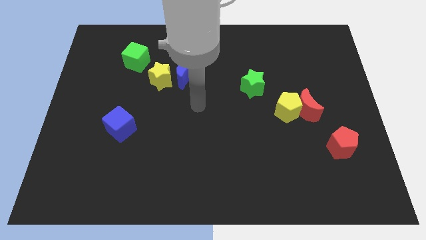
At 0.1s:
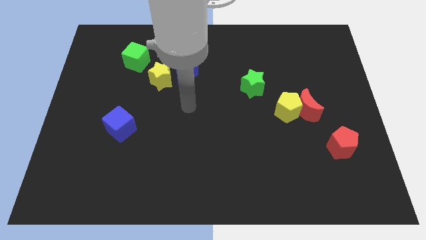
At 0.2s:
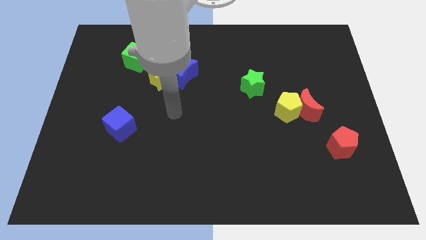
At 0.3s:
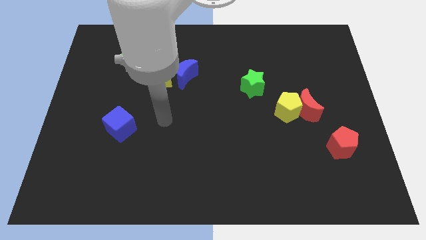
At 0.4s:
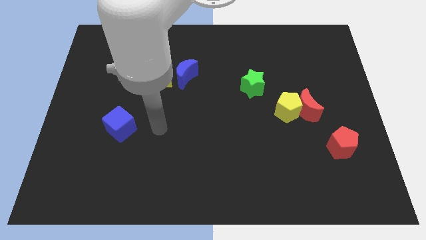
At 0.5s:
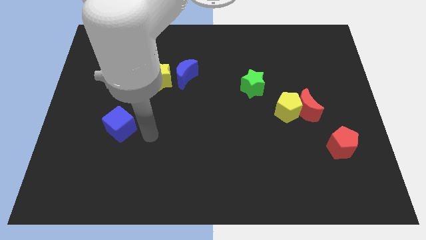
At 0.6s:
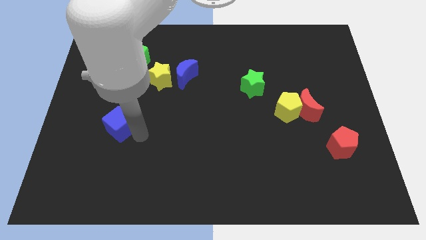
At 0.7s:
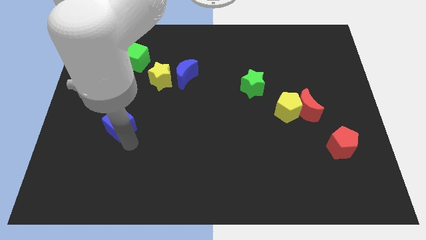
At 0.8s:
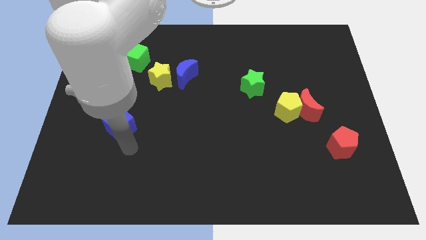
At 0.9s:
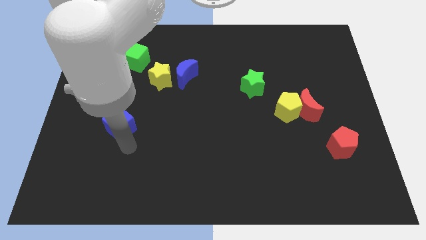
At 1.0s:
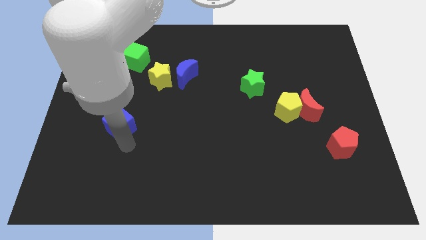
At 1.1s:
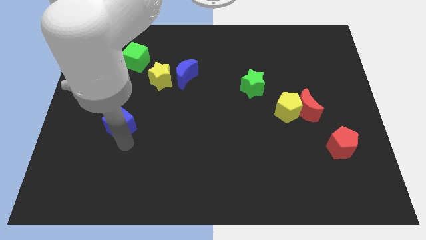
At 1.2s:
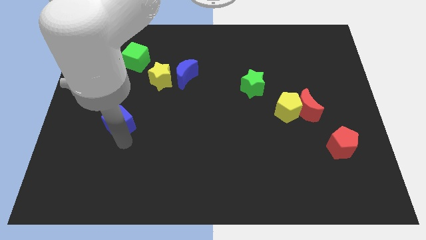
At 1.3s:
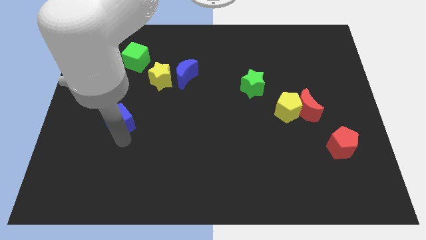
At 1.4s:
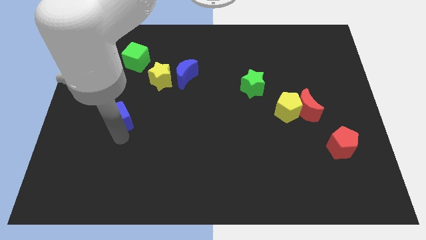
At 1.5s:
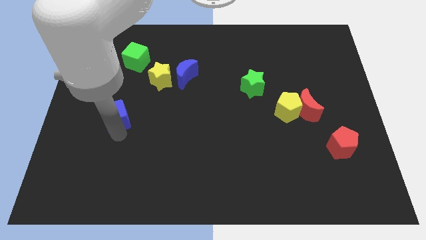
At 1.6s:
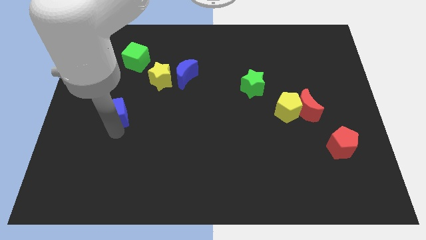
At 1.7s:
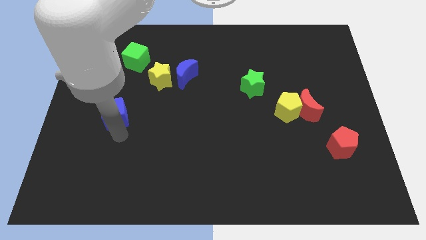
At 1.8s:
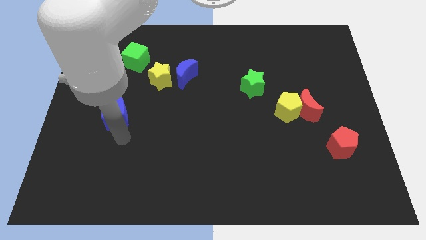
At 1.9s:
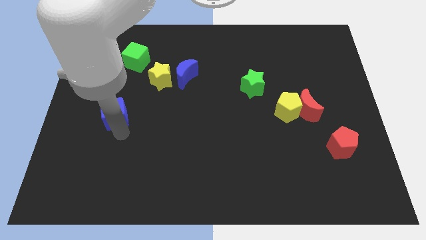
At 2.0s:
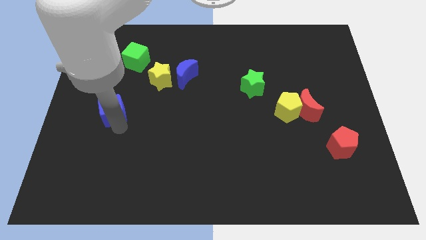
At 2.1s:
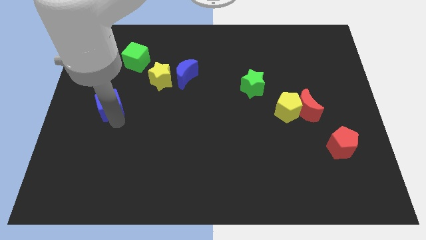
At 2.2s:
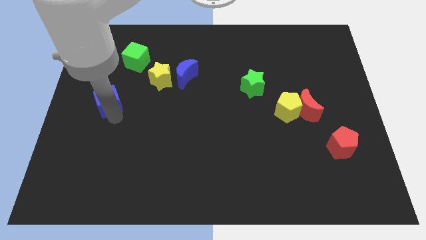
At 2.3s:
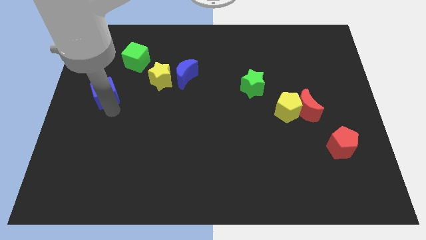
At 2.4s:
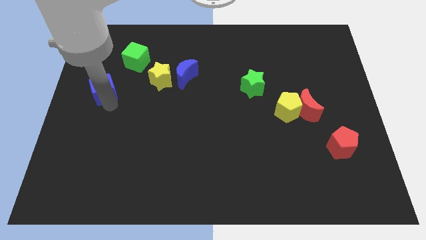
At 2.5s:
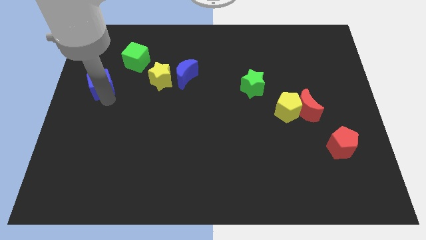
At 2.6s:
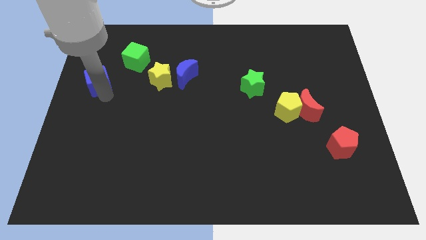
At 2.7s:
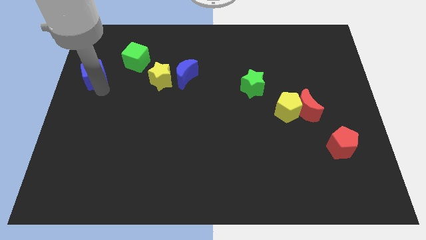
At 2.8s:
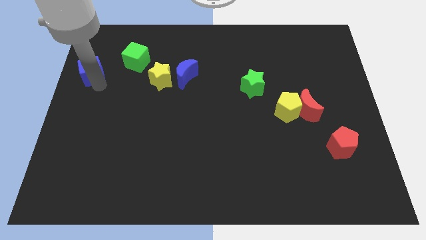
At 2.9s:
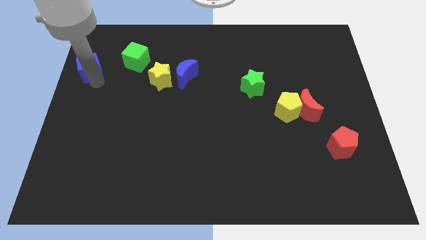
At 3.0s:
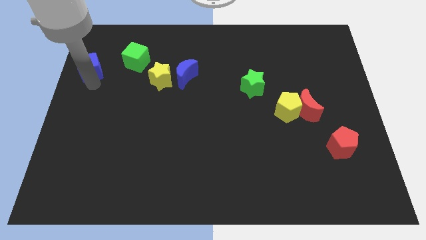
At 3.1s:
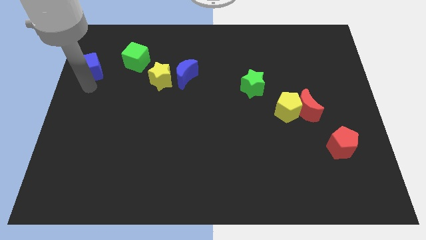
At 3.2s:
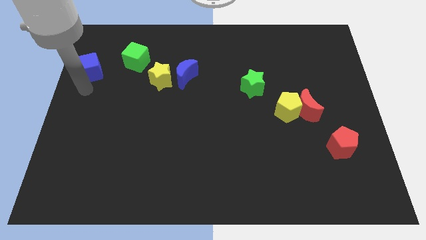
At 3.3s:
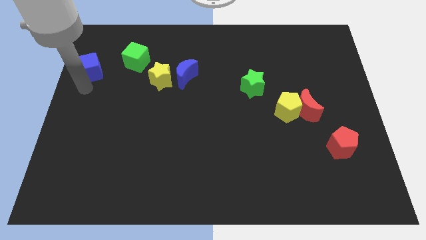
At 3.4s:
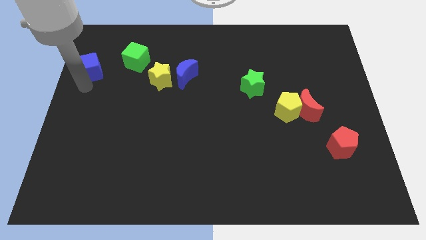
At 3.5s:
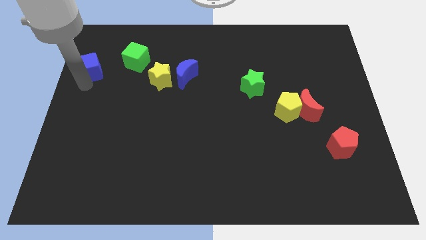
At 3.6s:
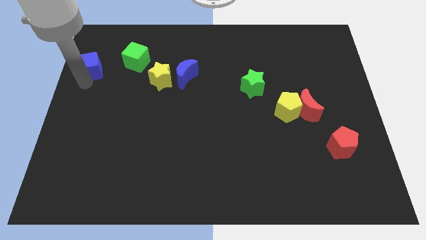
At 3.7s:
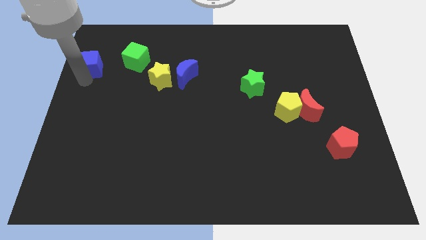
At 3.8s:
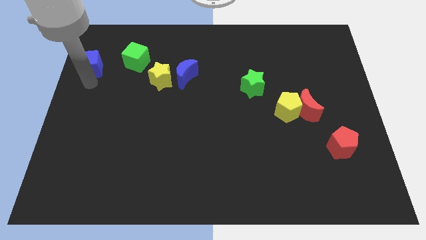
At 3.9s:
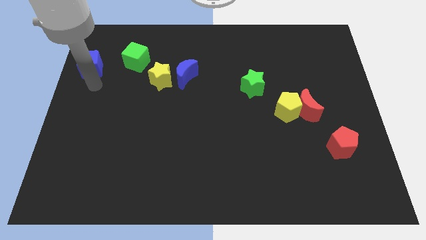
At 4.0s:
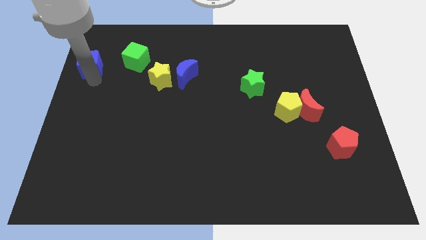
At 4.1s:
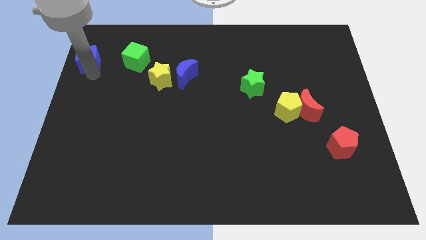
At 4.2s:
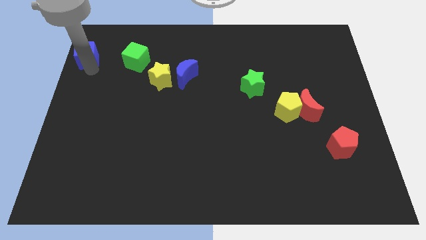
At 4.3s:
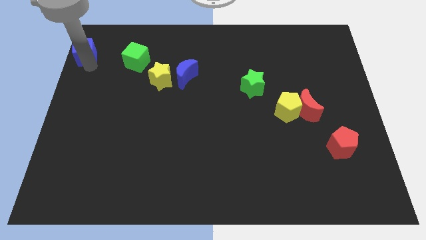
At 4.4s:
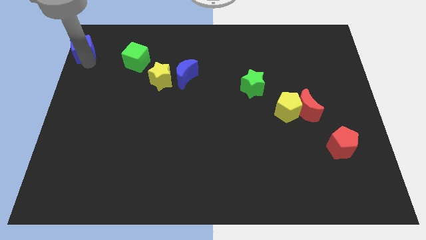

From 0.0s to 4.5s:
slide the blue cube to the top left corner

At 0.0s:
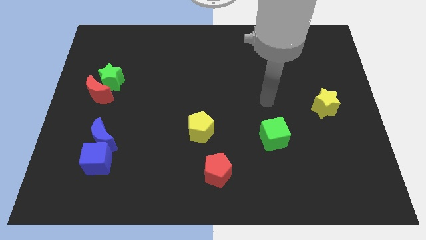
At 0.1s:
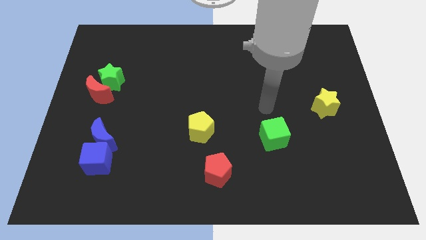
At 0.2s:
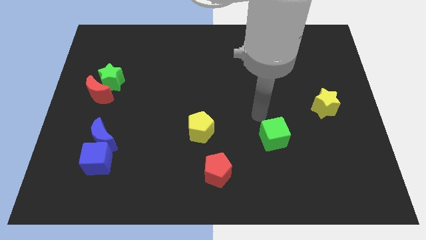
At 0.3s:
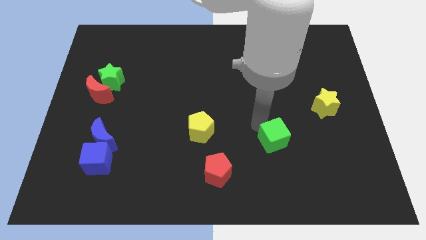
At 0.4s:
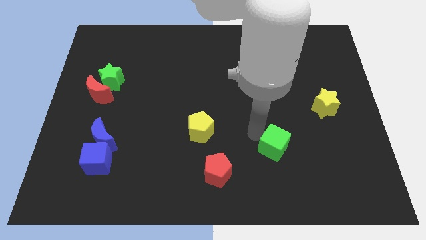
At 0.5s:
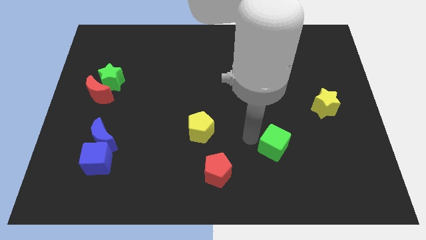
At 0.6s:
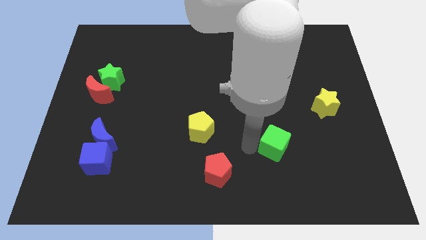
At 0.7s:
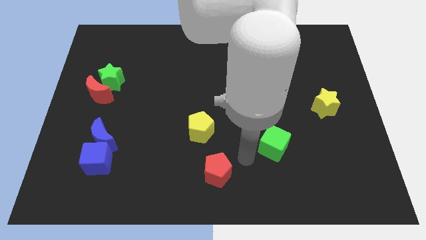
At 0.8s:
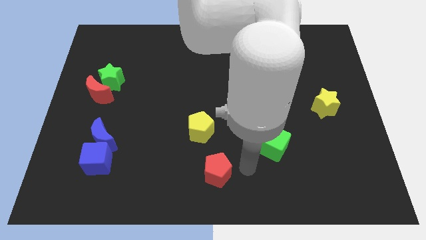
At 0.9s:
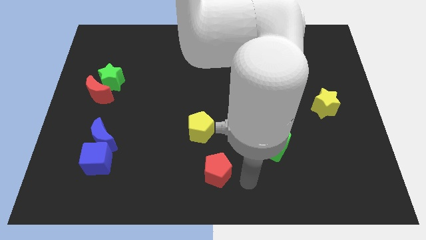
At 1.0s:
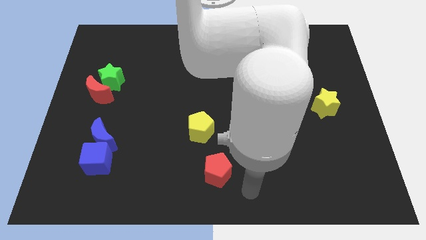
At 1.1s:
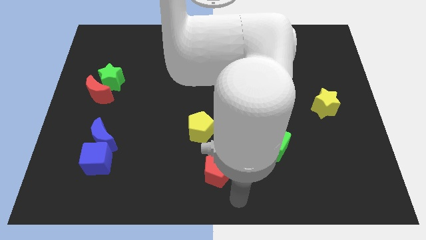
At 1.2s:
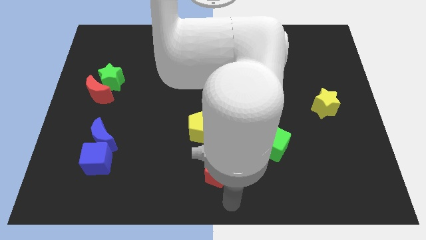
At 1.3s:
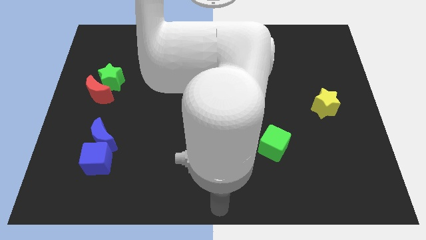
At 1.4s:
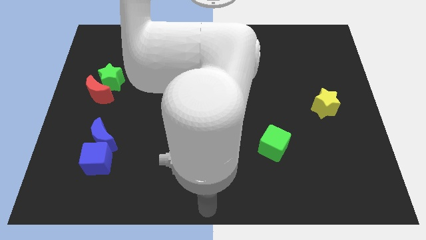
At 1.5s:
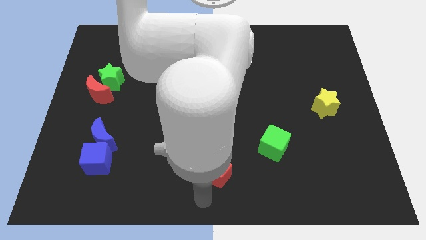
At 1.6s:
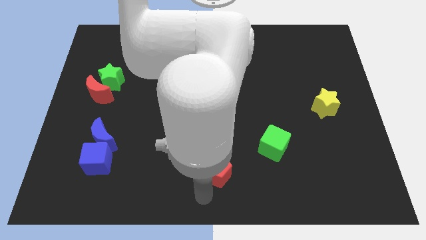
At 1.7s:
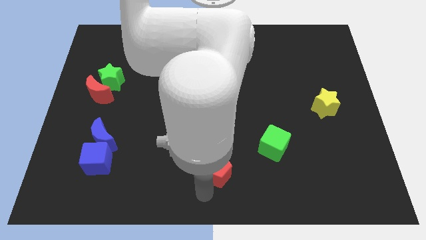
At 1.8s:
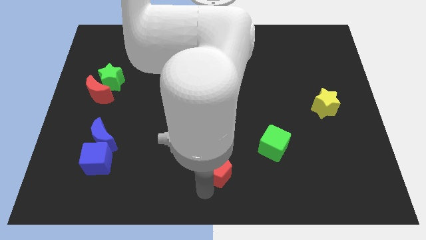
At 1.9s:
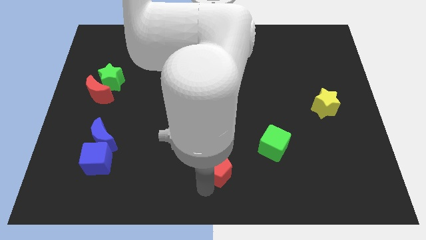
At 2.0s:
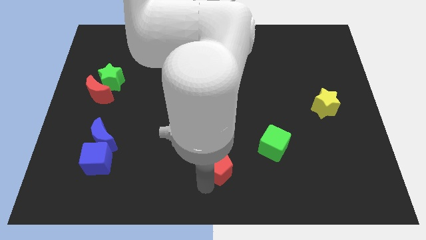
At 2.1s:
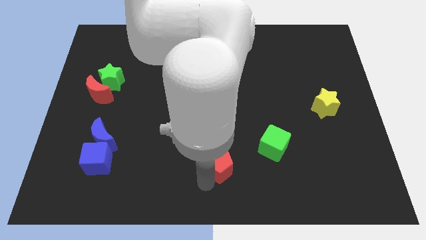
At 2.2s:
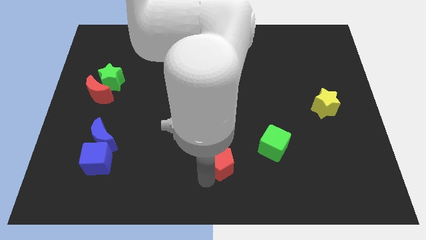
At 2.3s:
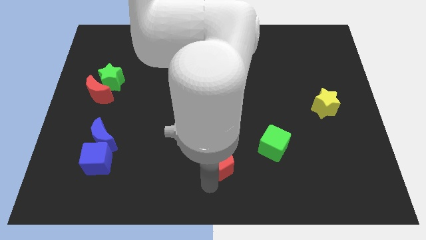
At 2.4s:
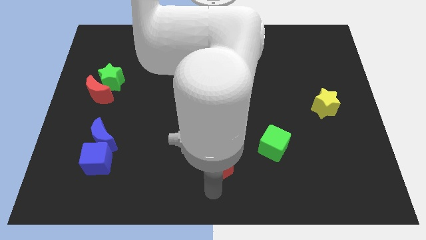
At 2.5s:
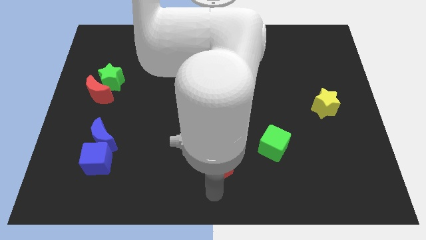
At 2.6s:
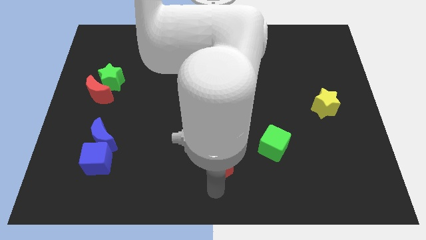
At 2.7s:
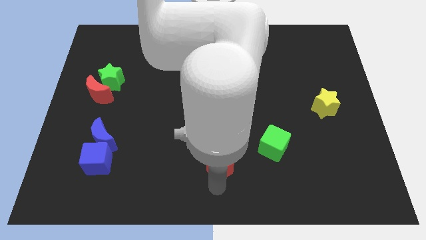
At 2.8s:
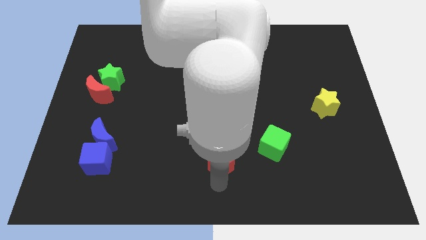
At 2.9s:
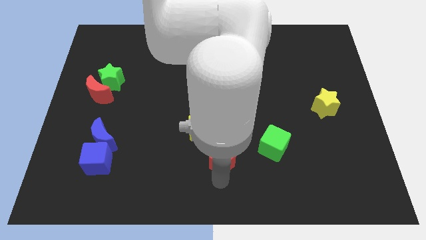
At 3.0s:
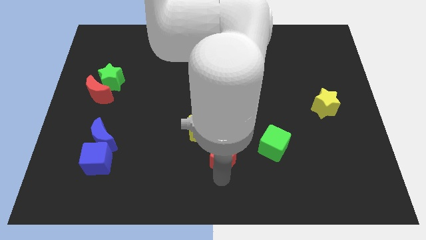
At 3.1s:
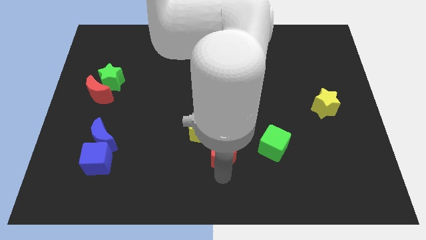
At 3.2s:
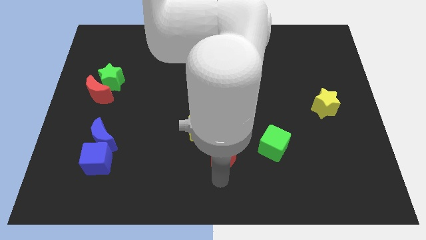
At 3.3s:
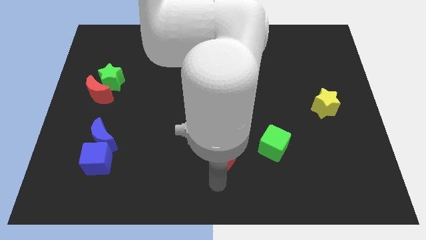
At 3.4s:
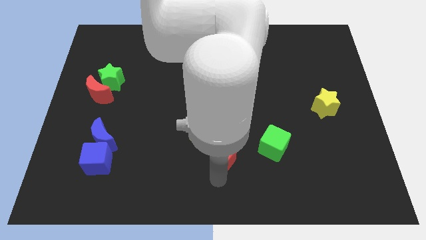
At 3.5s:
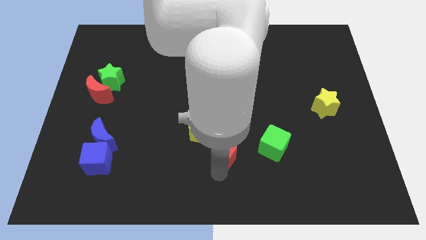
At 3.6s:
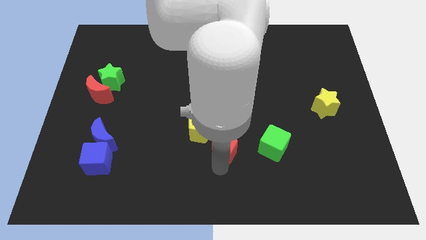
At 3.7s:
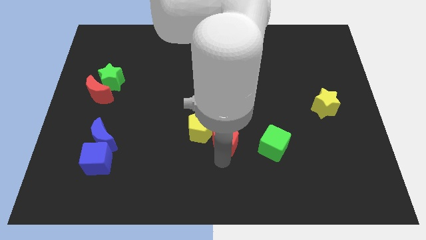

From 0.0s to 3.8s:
push the red pentagon to the center of the board

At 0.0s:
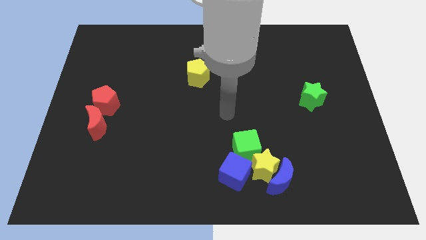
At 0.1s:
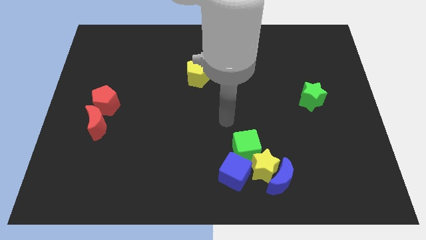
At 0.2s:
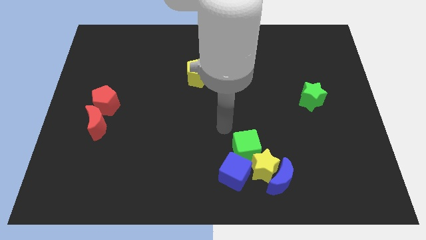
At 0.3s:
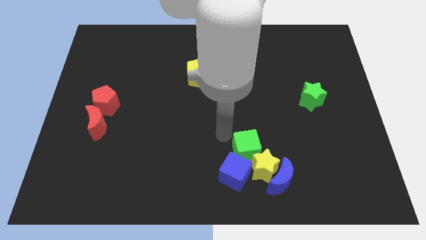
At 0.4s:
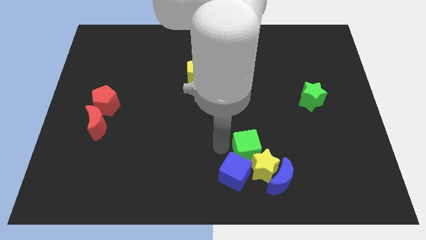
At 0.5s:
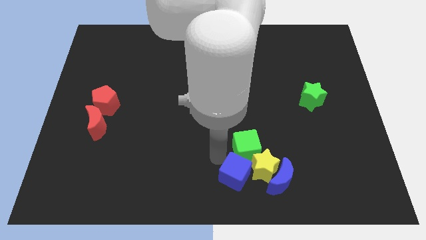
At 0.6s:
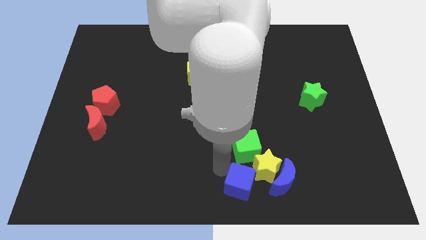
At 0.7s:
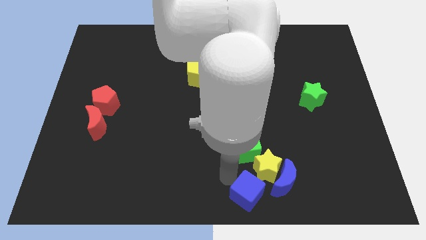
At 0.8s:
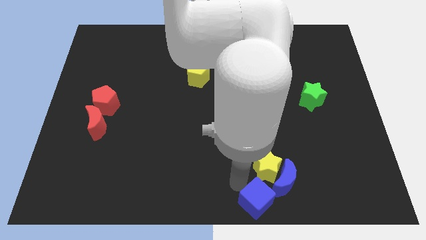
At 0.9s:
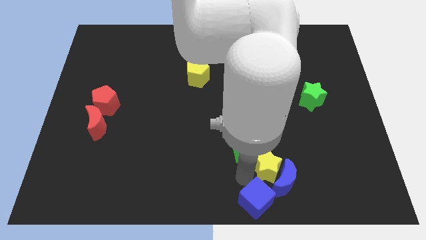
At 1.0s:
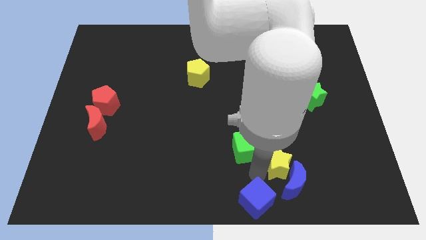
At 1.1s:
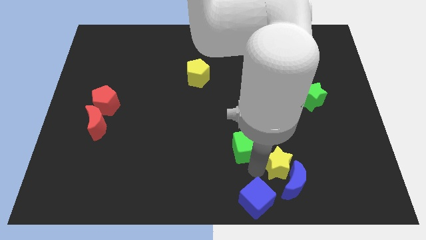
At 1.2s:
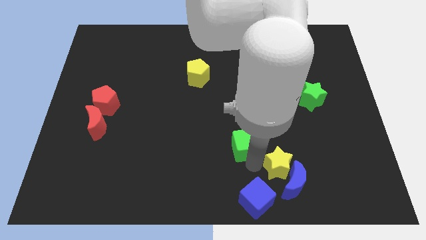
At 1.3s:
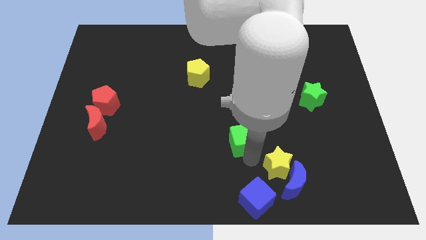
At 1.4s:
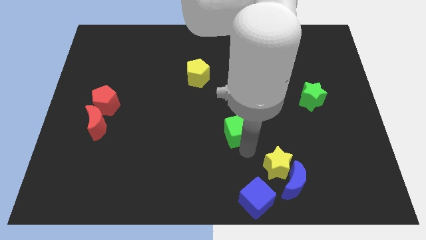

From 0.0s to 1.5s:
move the green cube to the center
